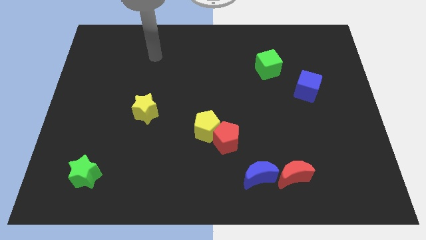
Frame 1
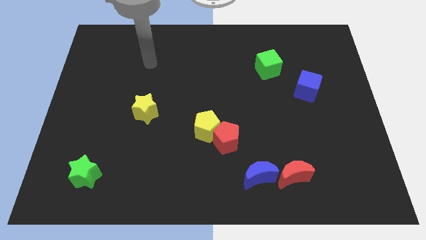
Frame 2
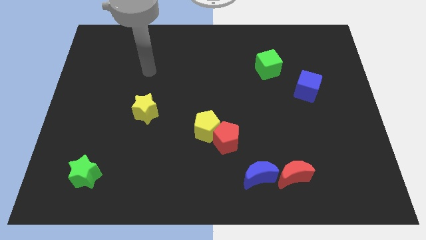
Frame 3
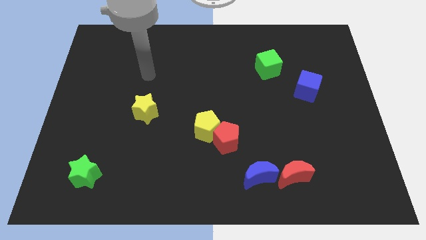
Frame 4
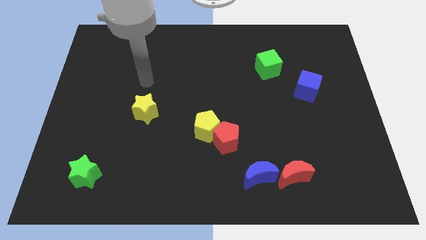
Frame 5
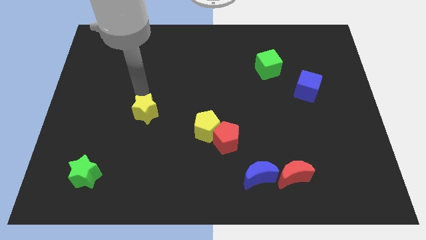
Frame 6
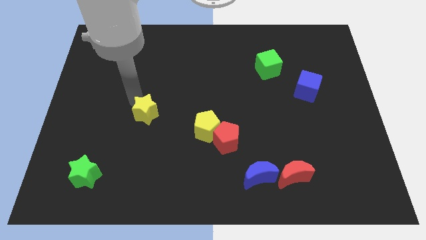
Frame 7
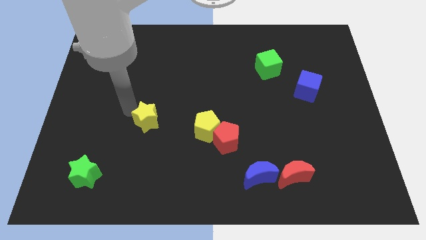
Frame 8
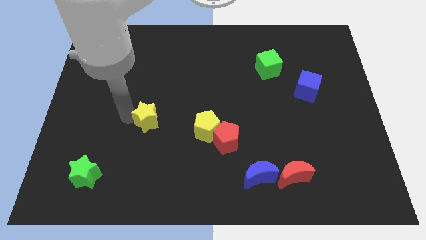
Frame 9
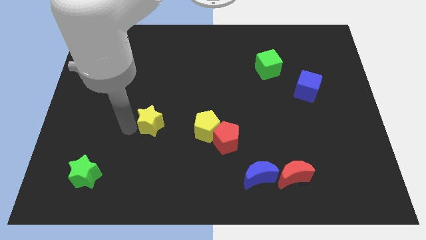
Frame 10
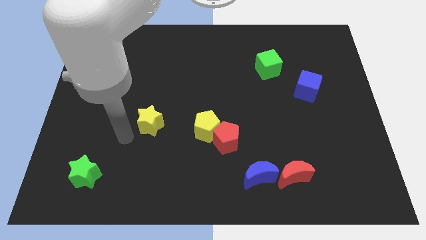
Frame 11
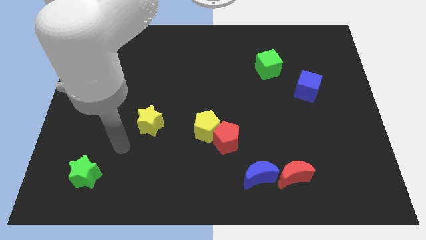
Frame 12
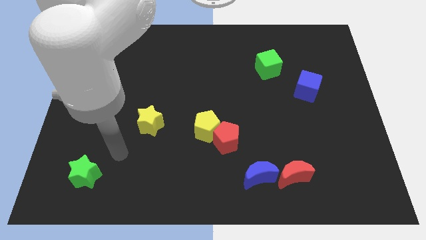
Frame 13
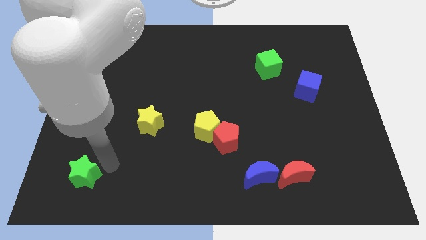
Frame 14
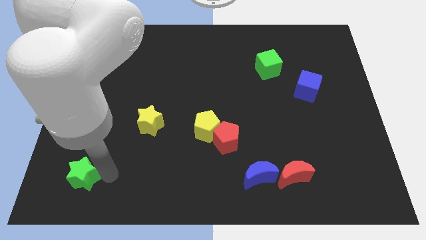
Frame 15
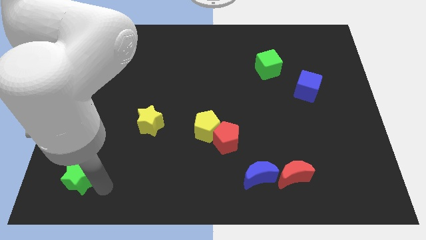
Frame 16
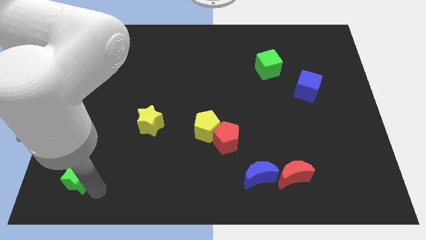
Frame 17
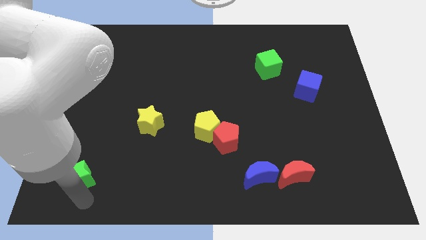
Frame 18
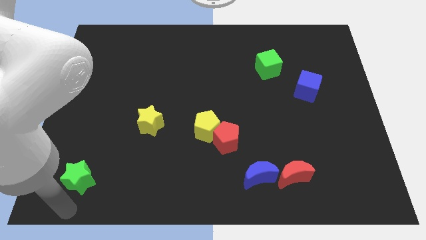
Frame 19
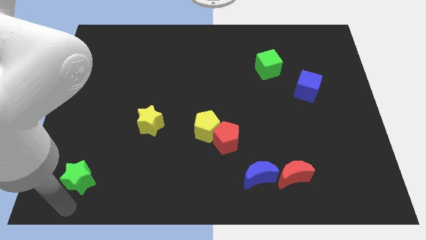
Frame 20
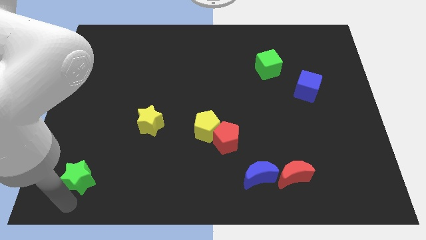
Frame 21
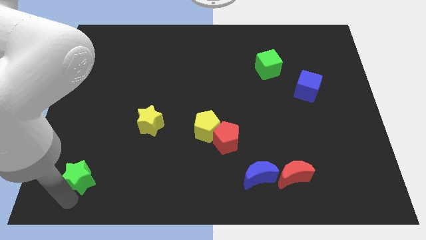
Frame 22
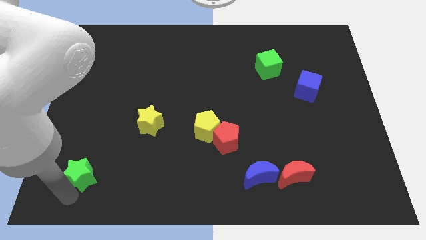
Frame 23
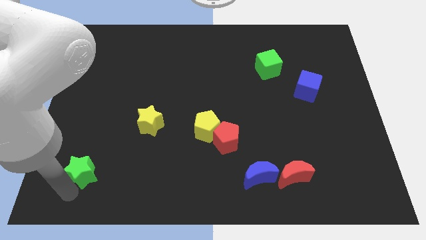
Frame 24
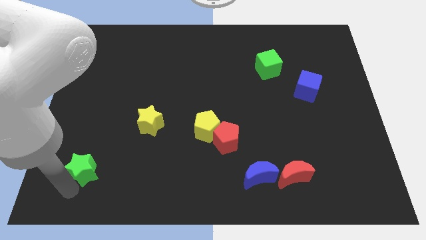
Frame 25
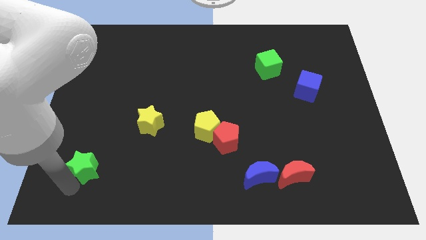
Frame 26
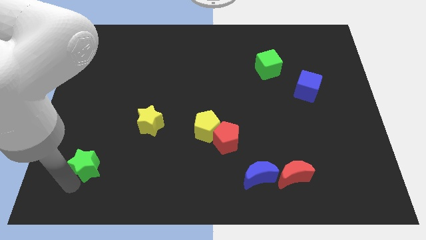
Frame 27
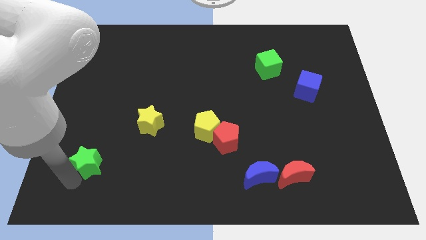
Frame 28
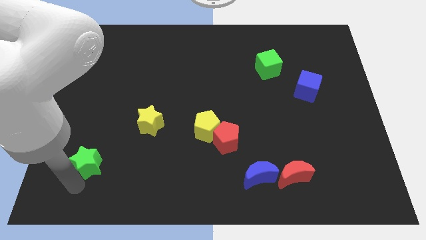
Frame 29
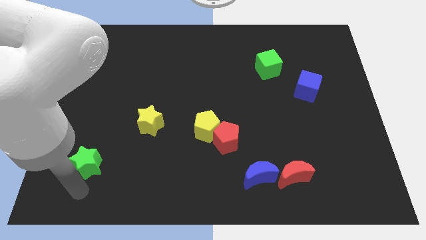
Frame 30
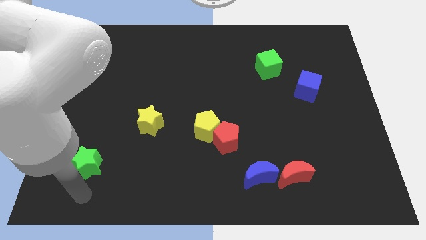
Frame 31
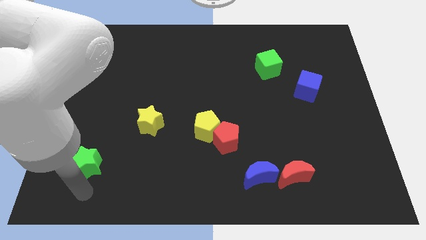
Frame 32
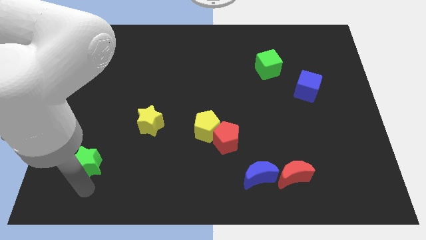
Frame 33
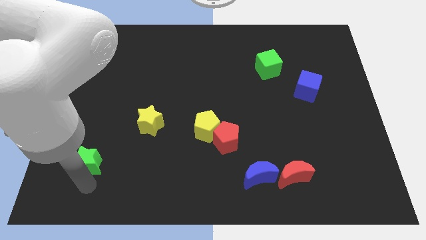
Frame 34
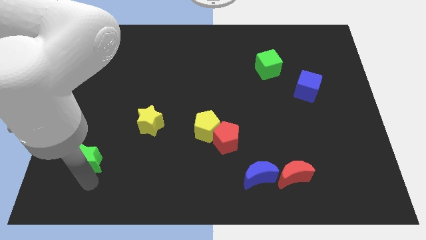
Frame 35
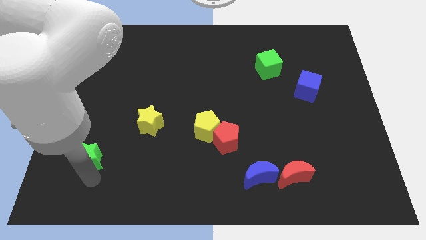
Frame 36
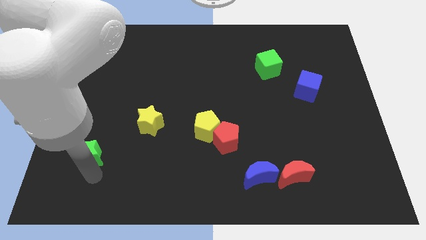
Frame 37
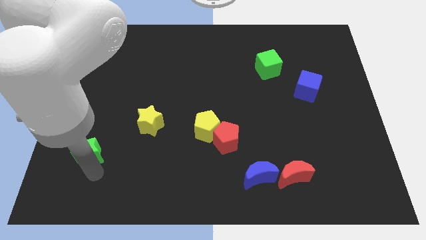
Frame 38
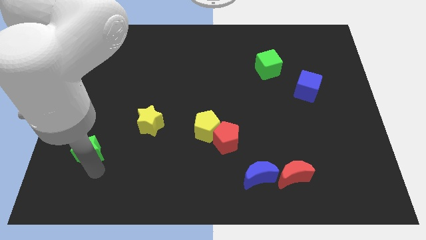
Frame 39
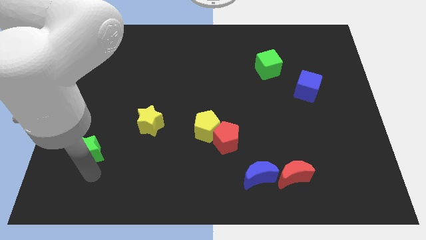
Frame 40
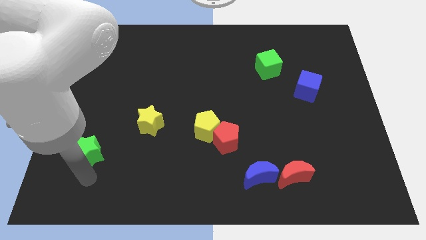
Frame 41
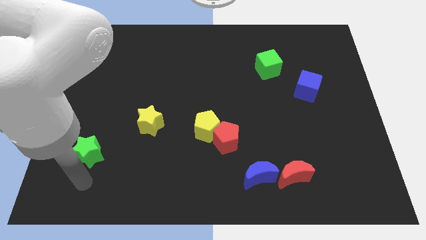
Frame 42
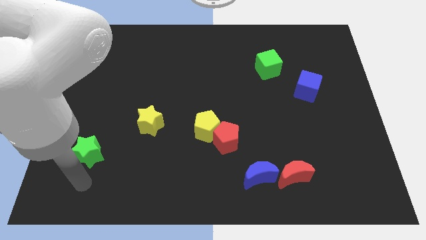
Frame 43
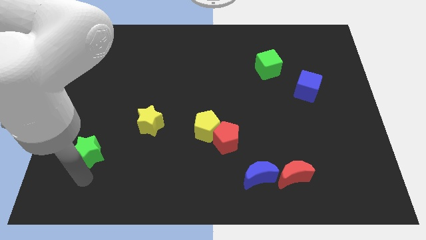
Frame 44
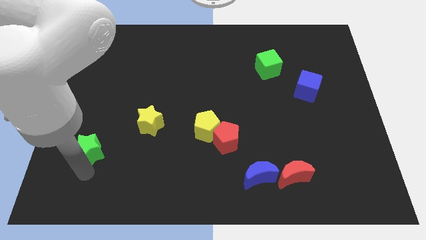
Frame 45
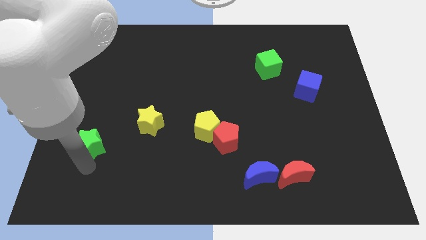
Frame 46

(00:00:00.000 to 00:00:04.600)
slightly slide the green star up

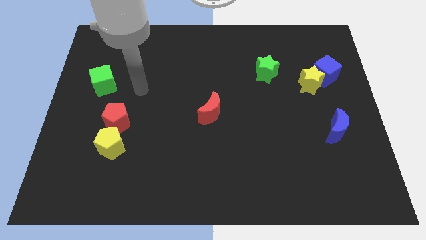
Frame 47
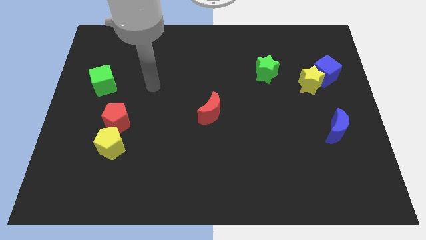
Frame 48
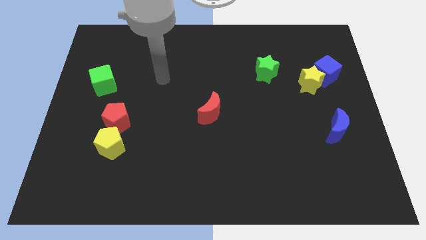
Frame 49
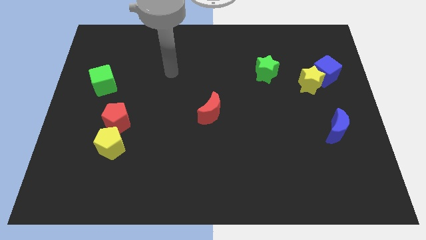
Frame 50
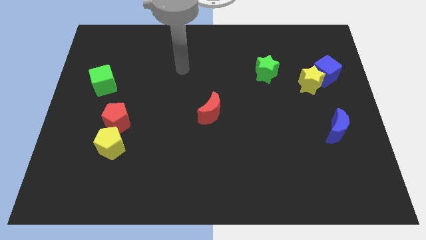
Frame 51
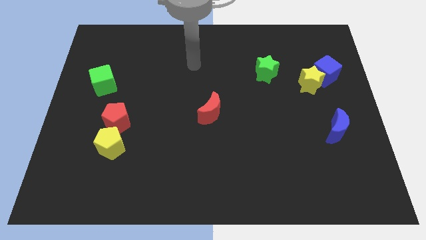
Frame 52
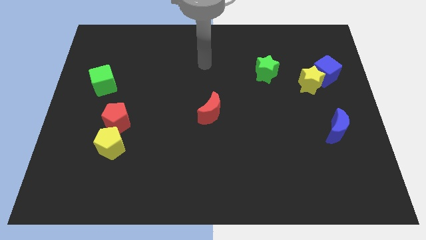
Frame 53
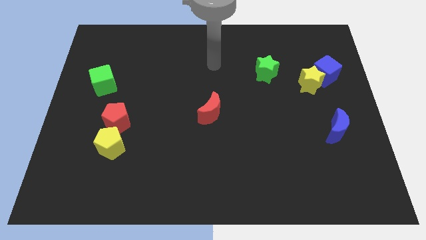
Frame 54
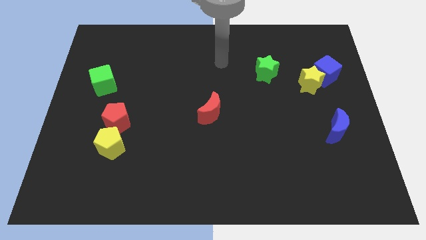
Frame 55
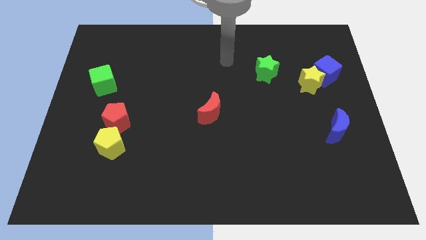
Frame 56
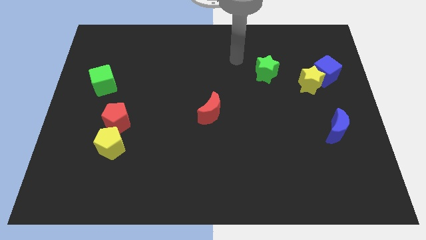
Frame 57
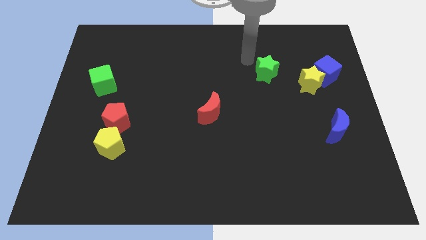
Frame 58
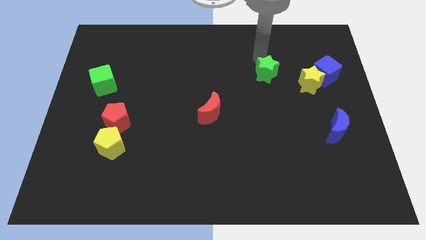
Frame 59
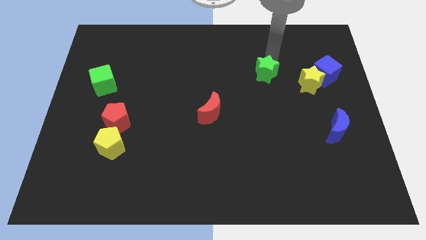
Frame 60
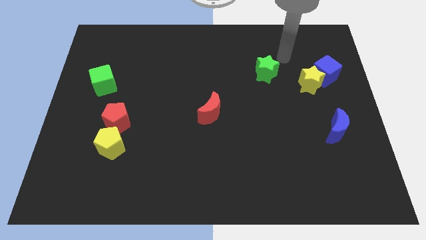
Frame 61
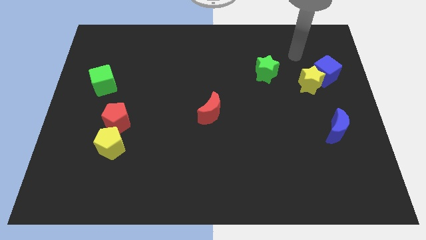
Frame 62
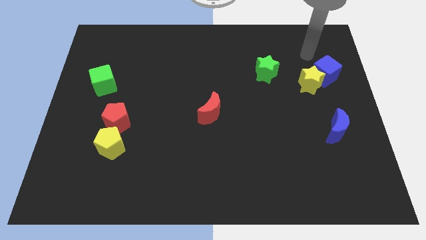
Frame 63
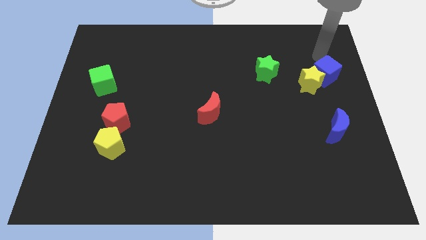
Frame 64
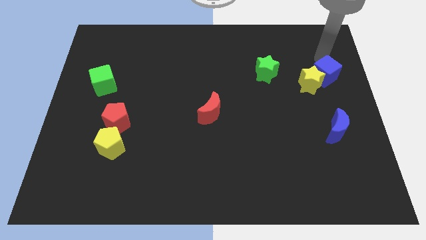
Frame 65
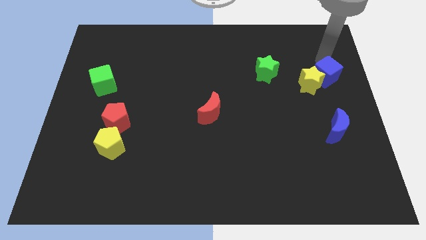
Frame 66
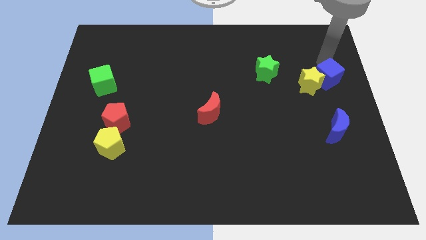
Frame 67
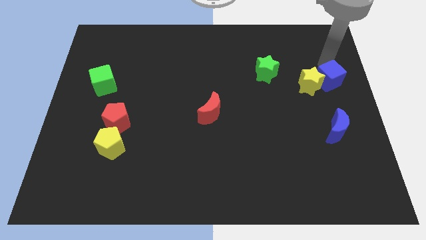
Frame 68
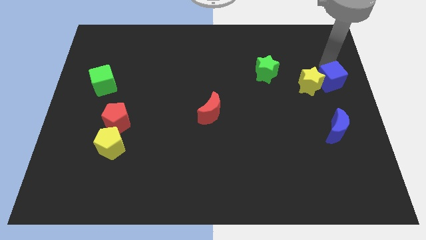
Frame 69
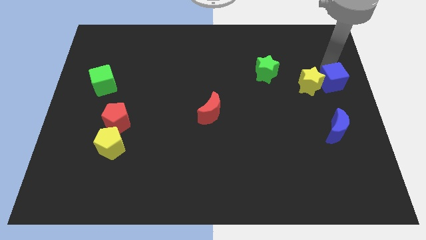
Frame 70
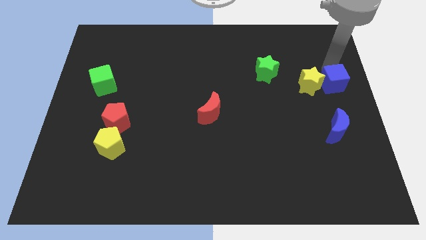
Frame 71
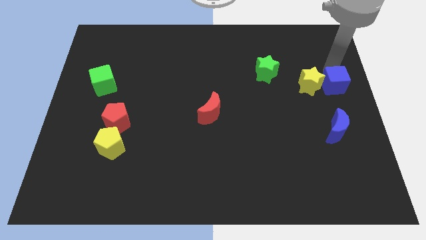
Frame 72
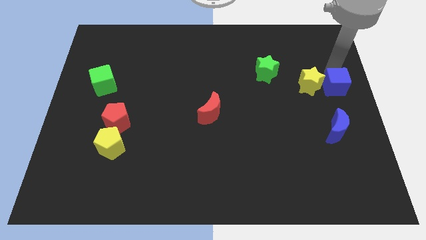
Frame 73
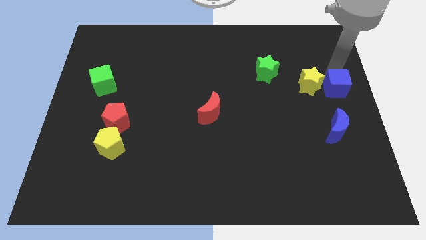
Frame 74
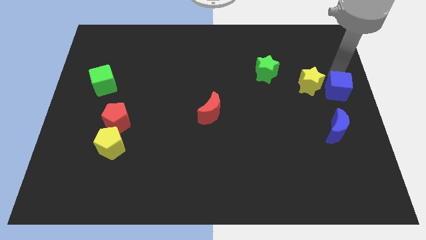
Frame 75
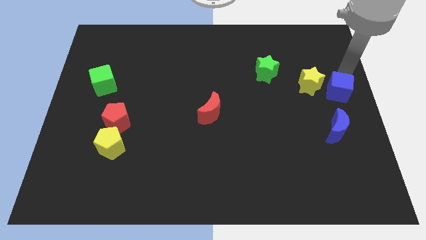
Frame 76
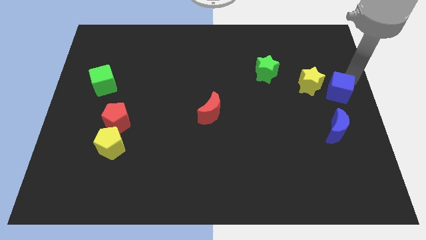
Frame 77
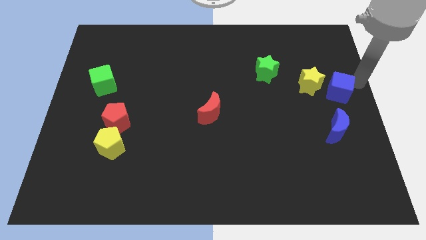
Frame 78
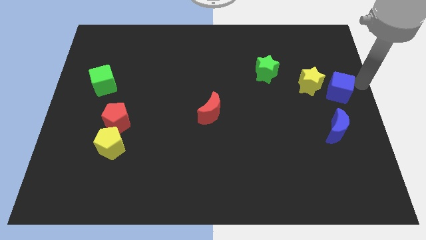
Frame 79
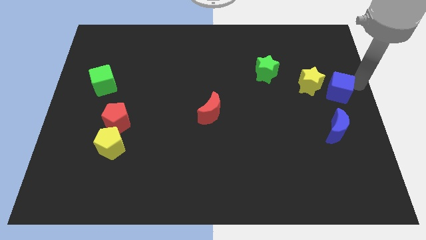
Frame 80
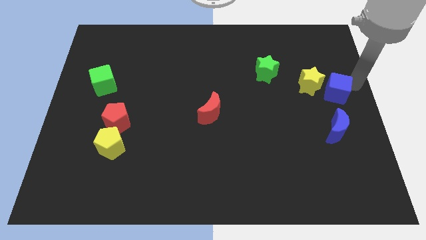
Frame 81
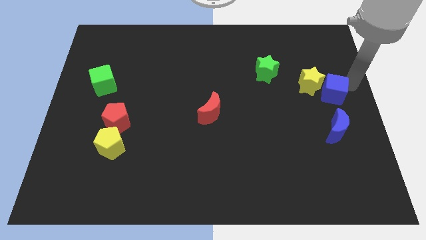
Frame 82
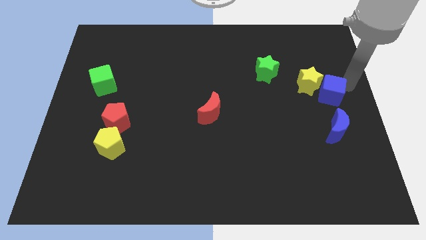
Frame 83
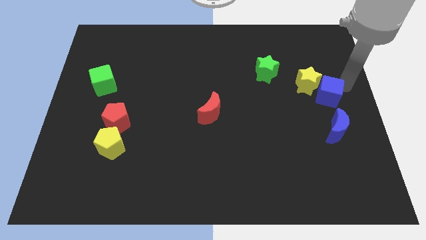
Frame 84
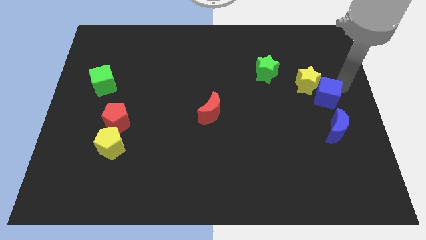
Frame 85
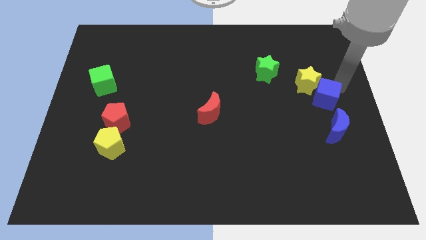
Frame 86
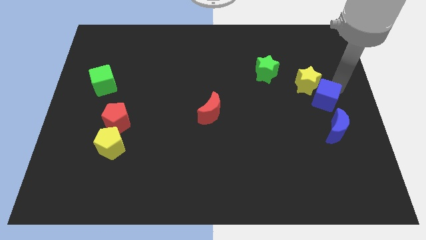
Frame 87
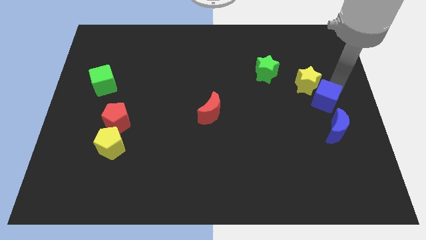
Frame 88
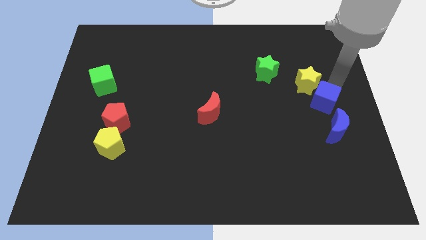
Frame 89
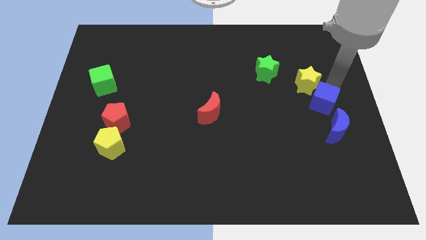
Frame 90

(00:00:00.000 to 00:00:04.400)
move the blue cube down and left somewhat
